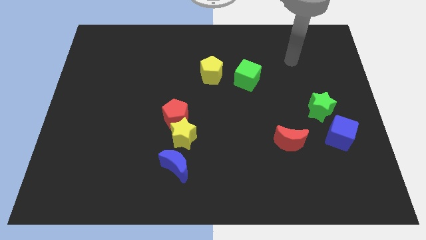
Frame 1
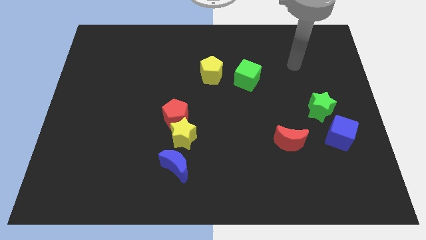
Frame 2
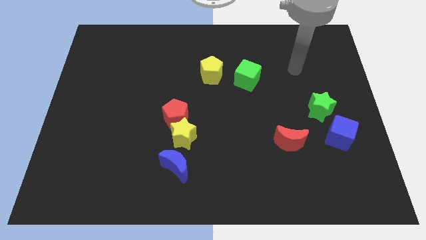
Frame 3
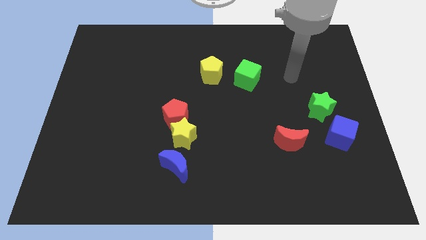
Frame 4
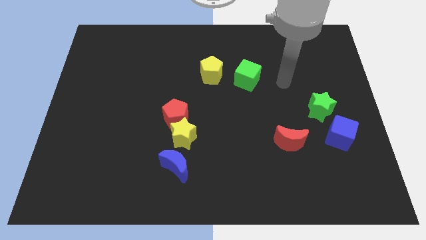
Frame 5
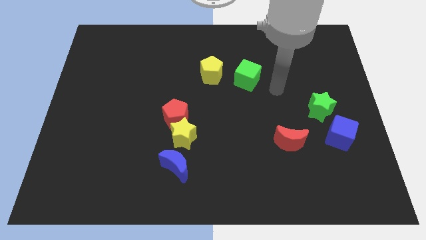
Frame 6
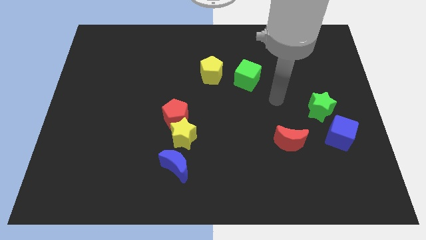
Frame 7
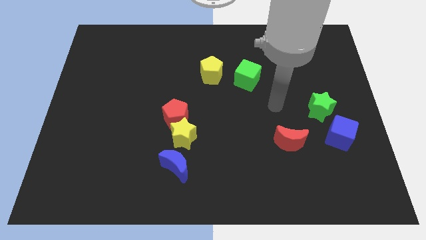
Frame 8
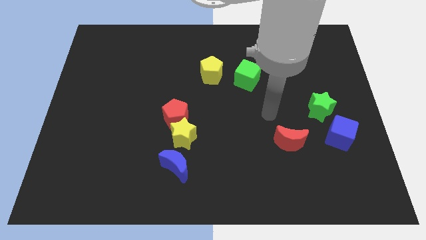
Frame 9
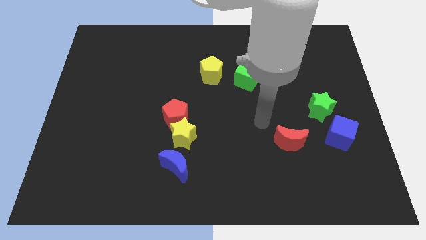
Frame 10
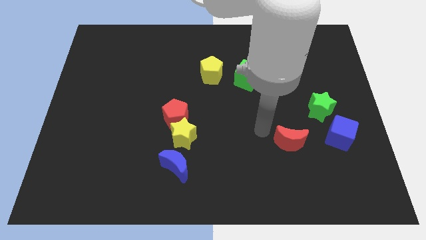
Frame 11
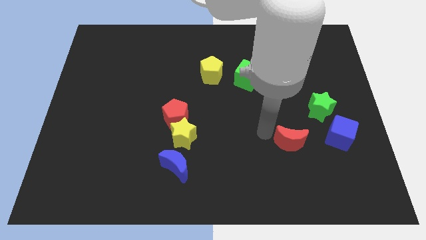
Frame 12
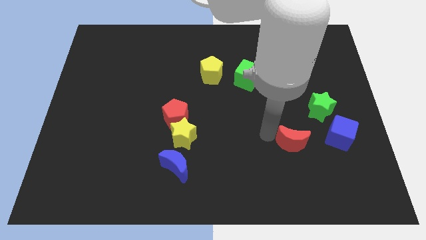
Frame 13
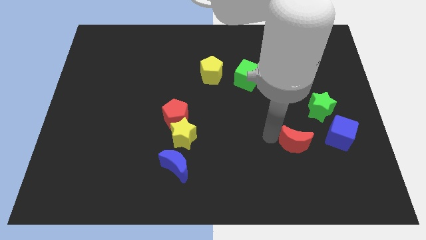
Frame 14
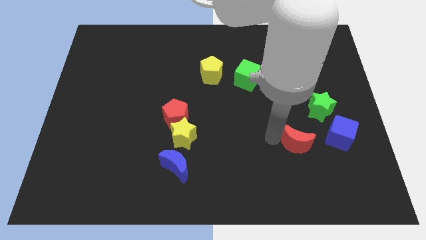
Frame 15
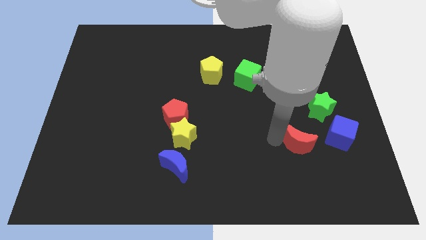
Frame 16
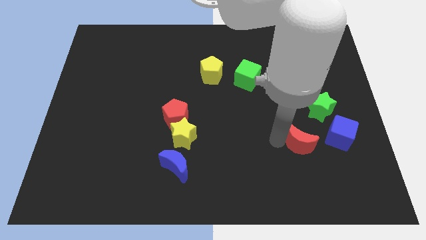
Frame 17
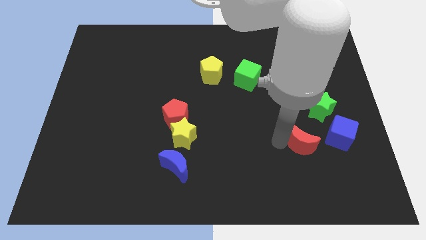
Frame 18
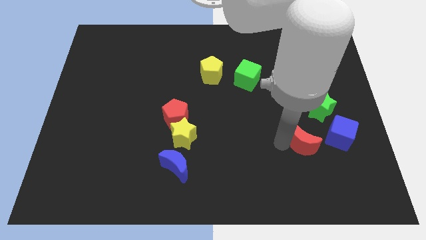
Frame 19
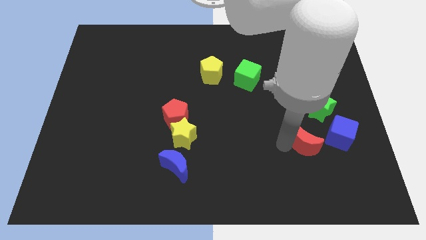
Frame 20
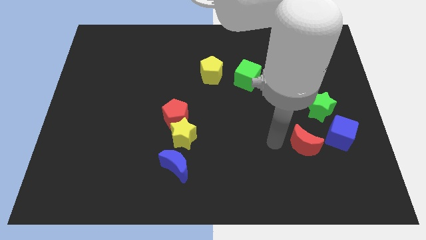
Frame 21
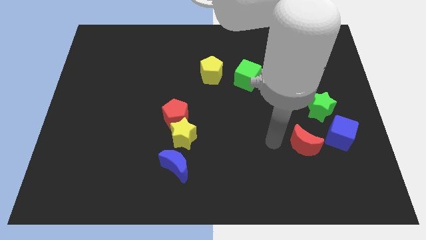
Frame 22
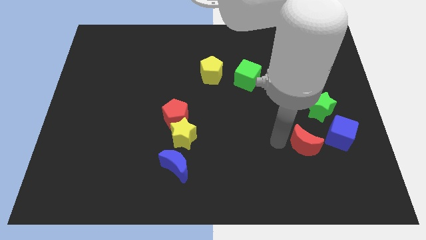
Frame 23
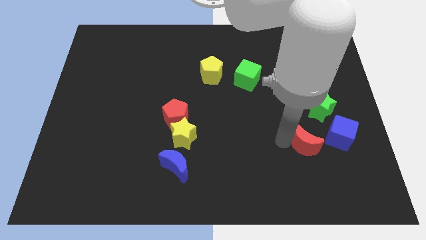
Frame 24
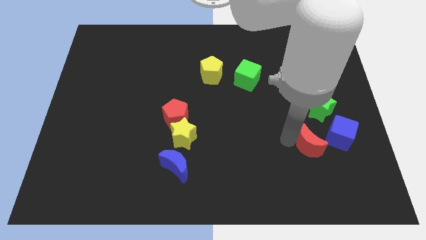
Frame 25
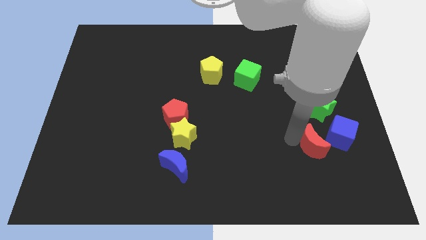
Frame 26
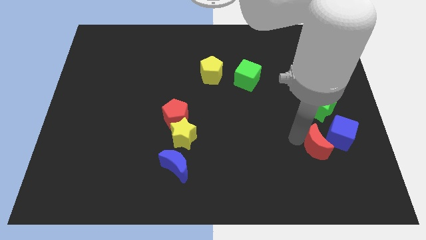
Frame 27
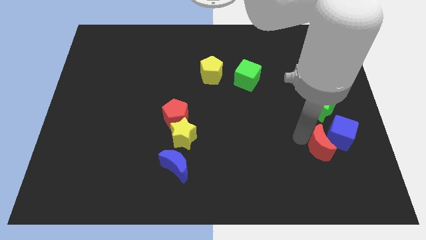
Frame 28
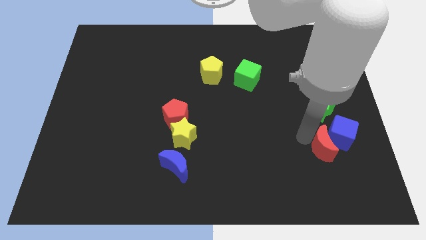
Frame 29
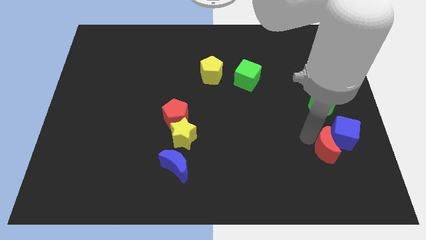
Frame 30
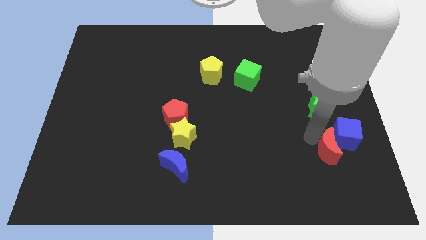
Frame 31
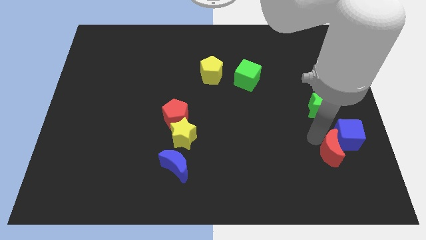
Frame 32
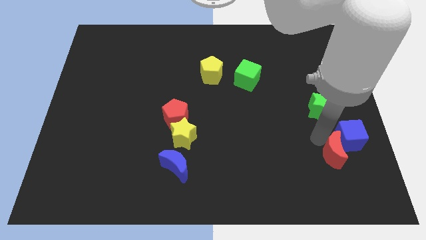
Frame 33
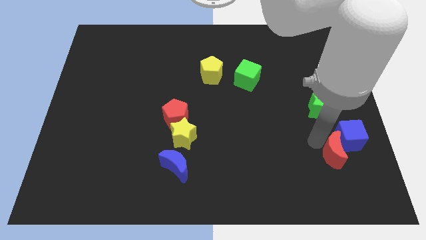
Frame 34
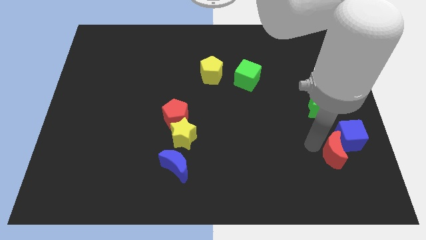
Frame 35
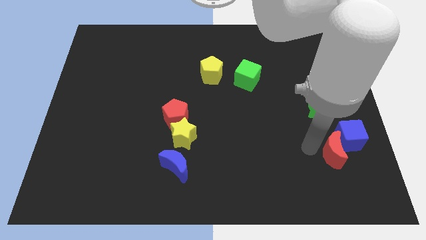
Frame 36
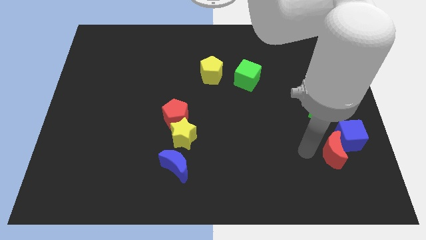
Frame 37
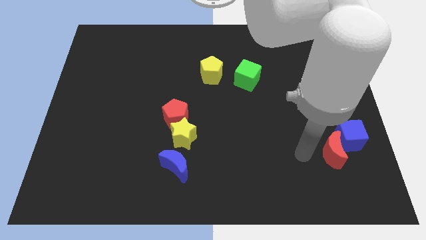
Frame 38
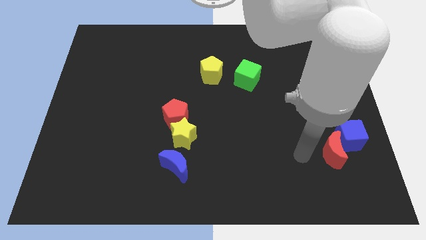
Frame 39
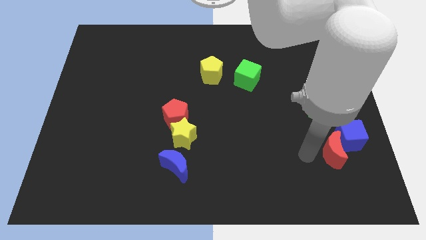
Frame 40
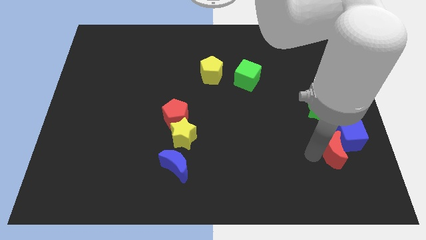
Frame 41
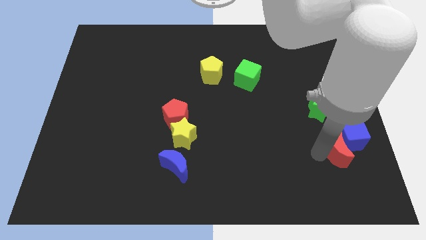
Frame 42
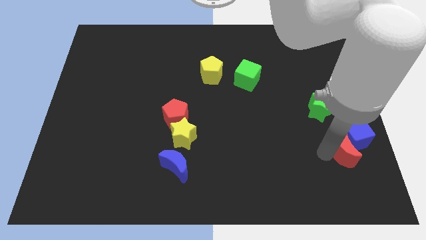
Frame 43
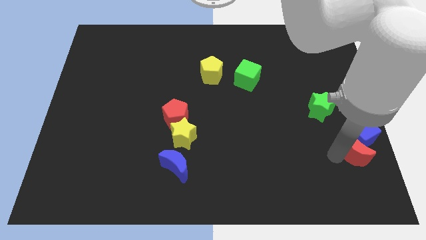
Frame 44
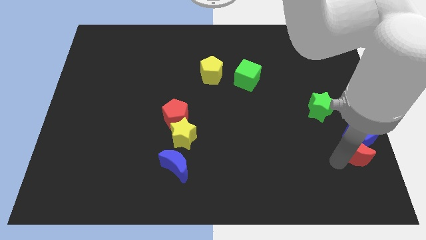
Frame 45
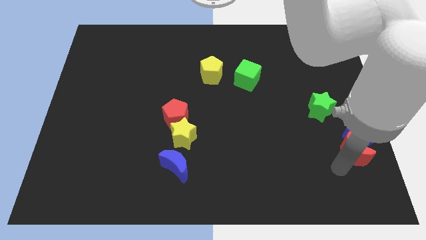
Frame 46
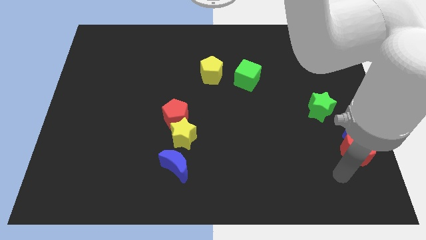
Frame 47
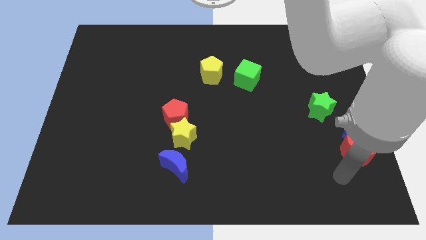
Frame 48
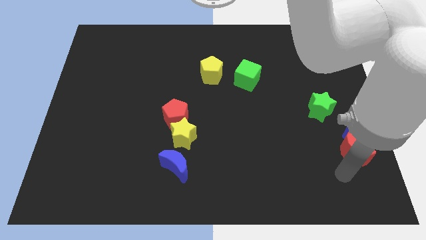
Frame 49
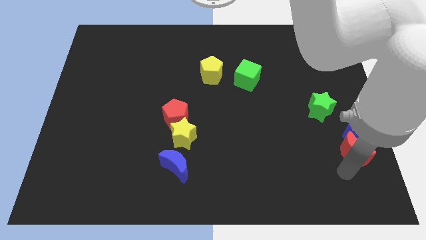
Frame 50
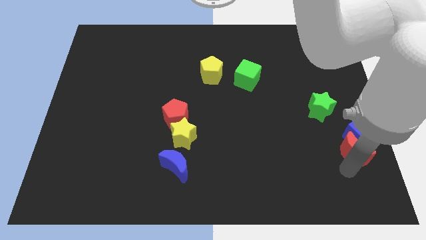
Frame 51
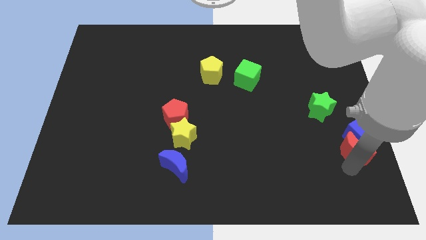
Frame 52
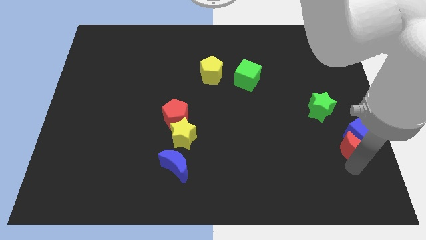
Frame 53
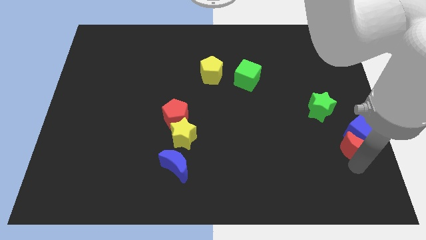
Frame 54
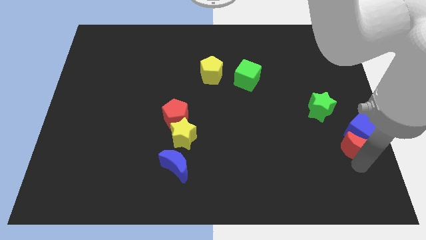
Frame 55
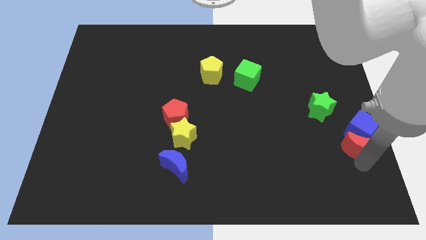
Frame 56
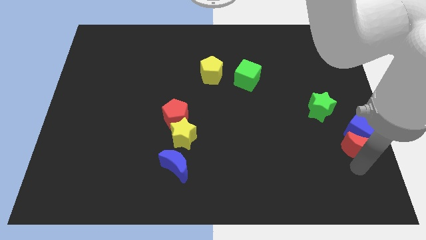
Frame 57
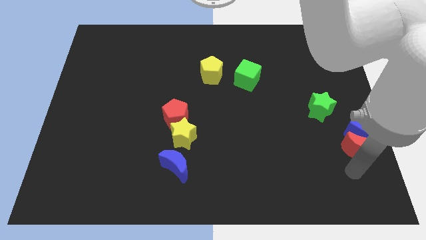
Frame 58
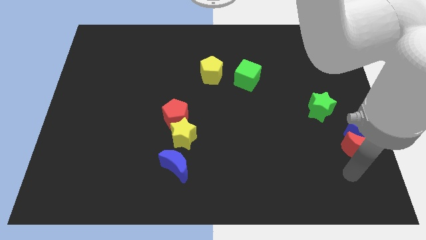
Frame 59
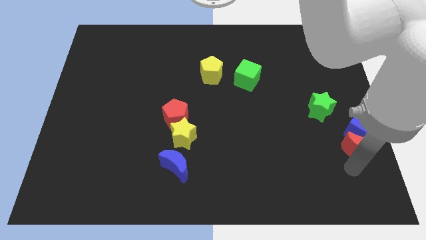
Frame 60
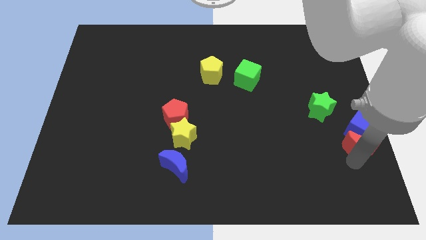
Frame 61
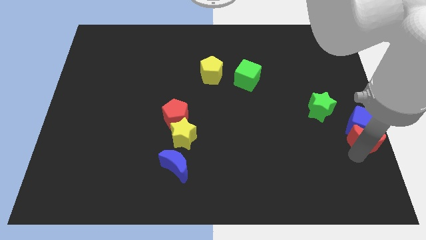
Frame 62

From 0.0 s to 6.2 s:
put the red moon to the right side
